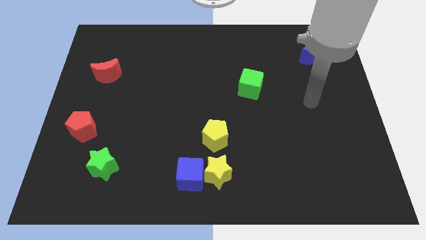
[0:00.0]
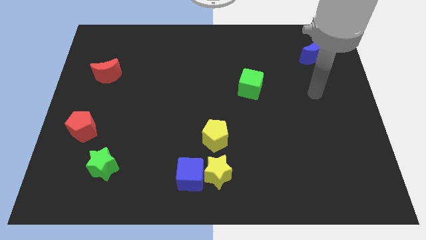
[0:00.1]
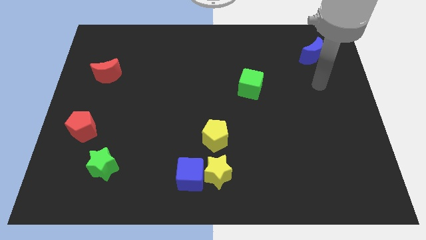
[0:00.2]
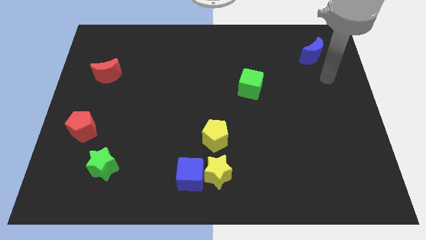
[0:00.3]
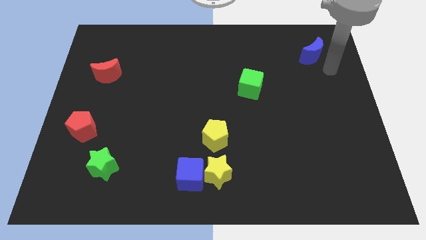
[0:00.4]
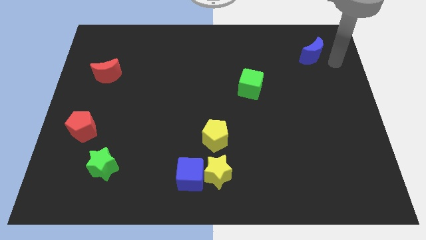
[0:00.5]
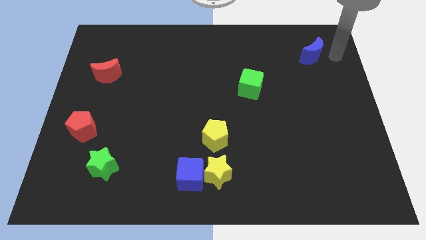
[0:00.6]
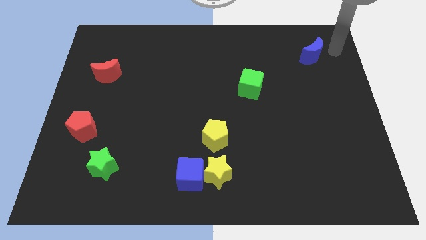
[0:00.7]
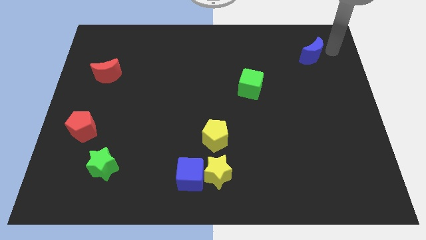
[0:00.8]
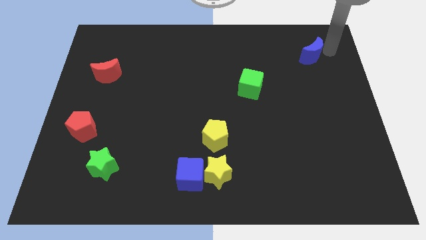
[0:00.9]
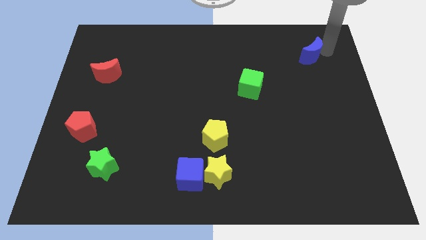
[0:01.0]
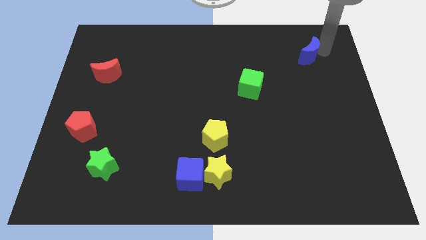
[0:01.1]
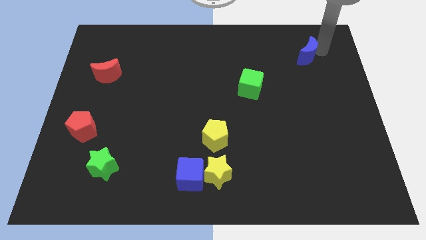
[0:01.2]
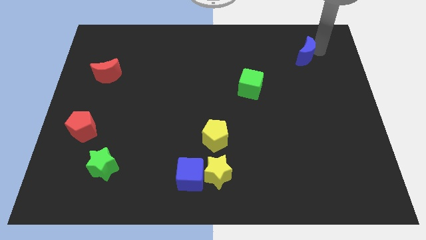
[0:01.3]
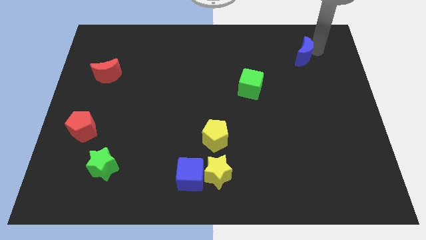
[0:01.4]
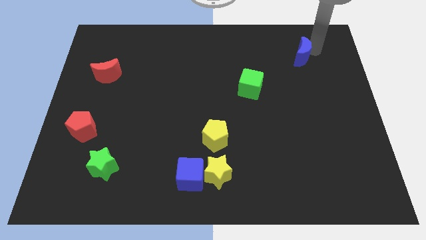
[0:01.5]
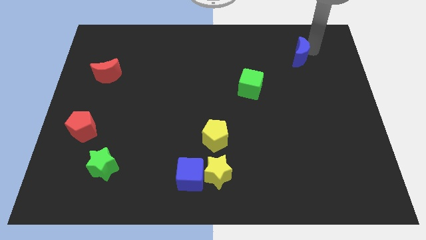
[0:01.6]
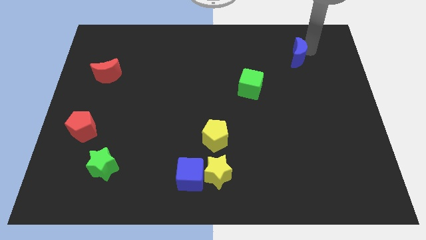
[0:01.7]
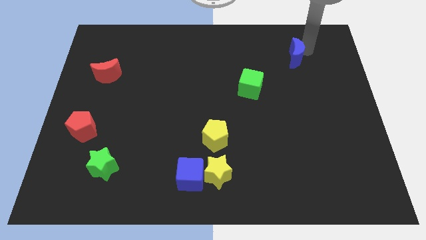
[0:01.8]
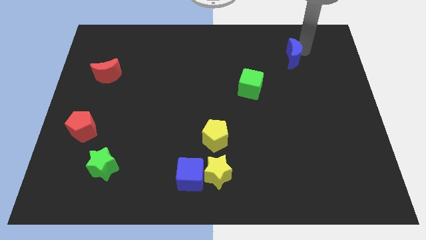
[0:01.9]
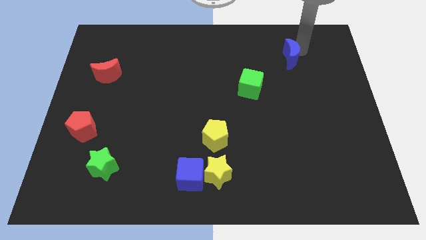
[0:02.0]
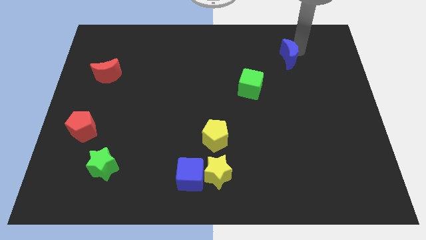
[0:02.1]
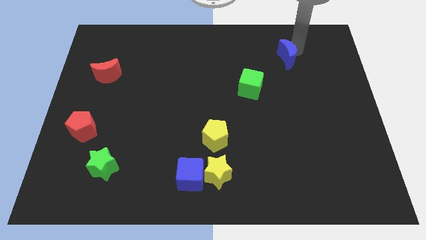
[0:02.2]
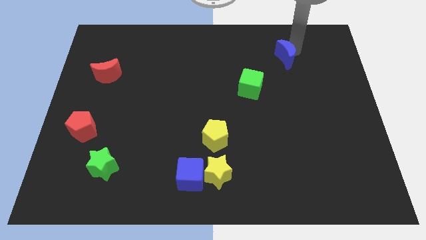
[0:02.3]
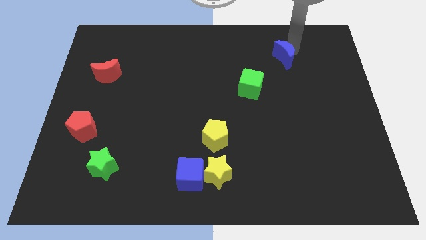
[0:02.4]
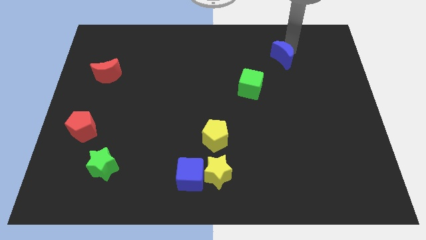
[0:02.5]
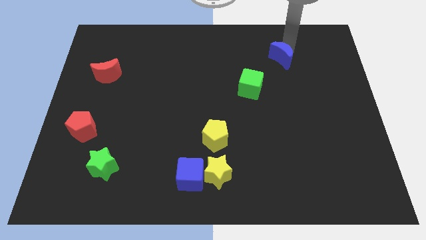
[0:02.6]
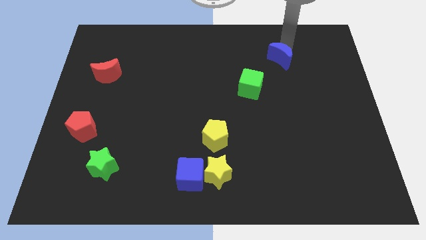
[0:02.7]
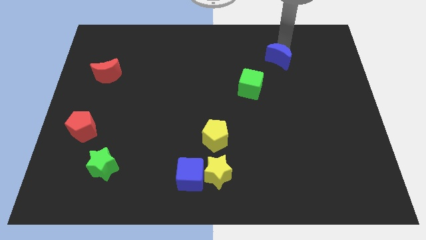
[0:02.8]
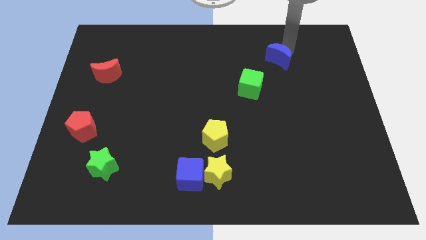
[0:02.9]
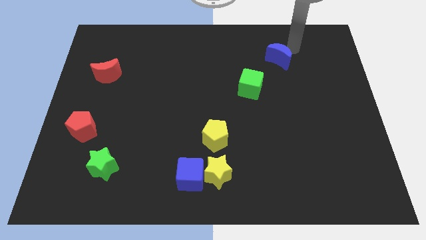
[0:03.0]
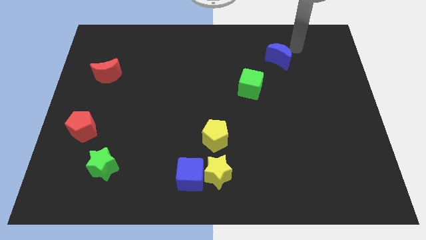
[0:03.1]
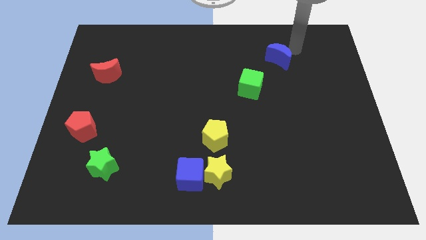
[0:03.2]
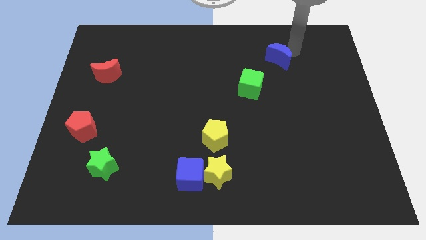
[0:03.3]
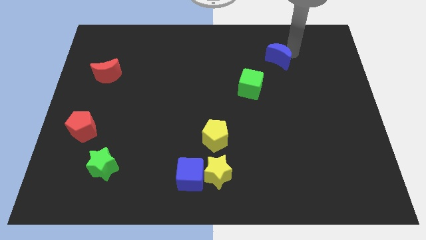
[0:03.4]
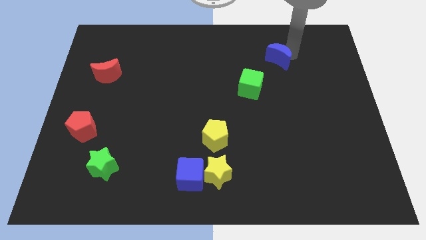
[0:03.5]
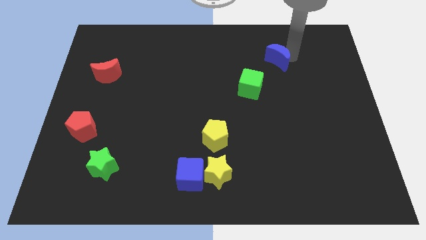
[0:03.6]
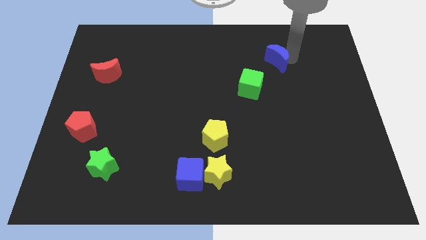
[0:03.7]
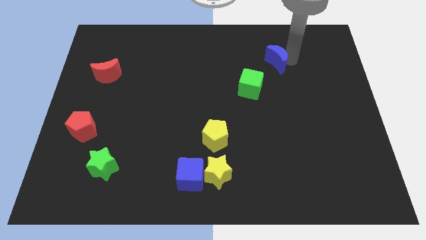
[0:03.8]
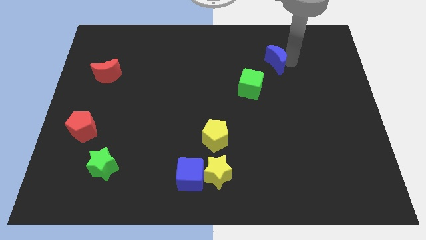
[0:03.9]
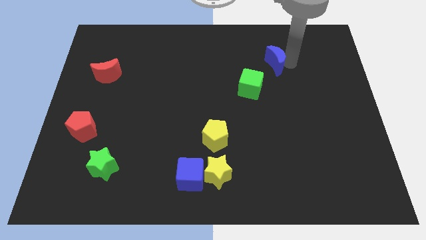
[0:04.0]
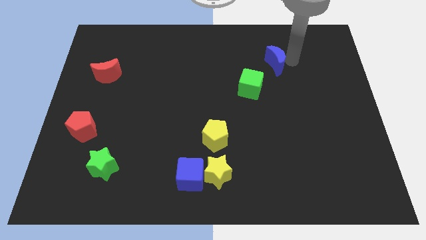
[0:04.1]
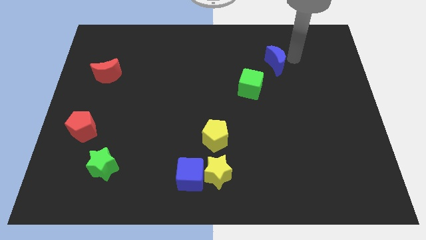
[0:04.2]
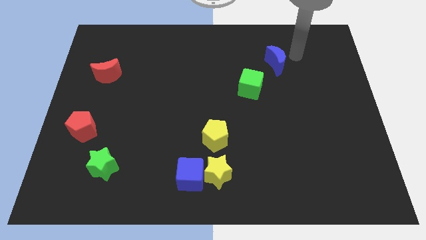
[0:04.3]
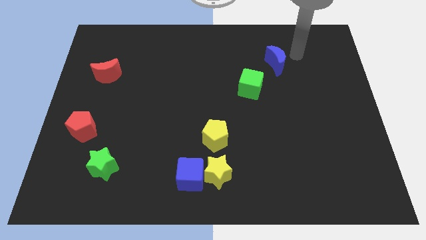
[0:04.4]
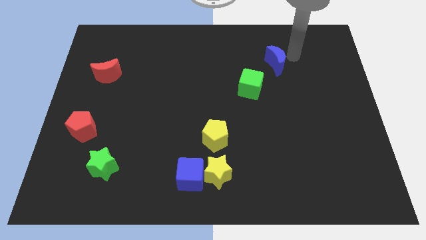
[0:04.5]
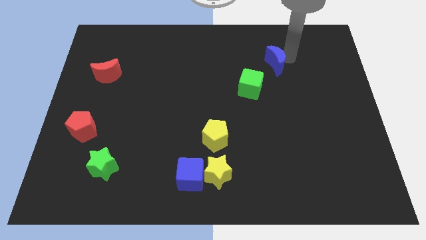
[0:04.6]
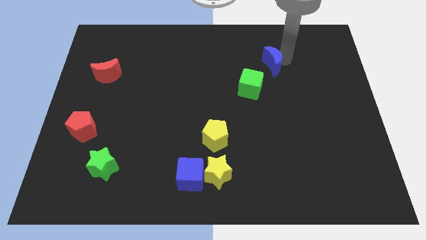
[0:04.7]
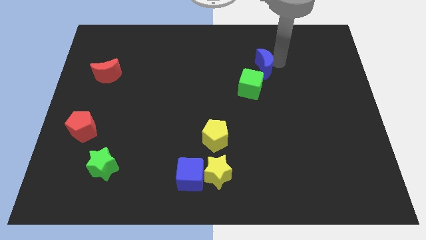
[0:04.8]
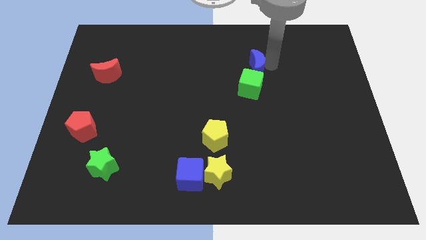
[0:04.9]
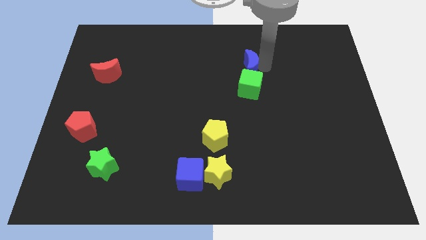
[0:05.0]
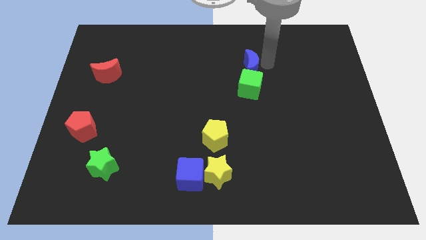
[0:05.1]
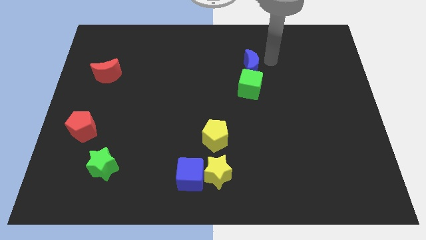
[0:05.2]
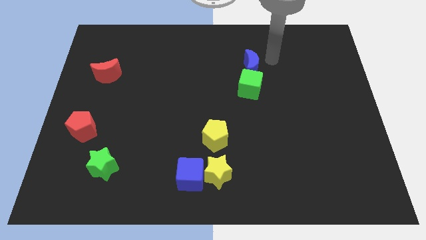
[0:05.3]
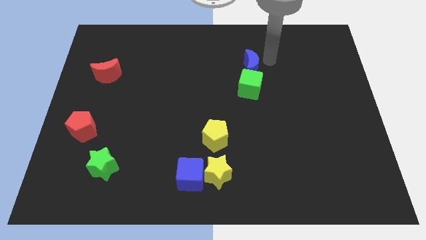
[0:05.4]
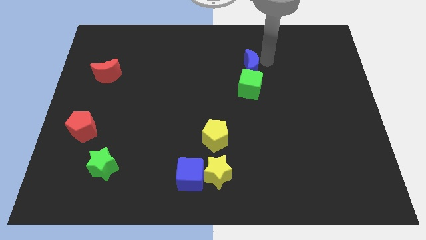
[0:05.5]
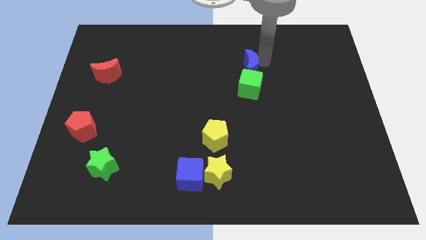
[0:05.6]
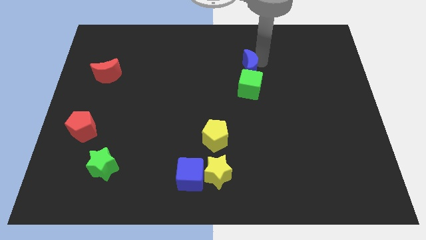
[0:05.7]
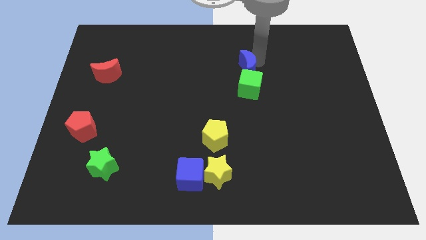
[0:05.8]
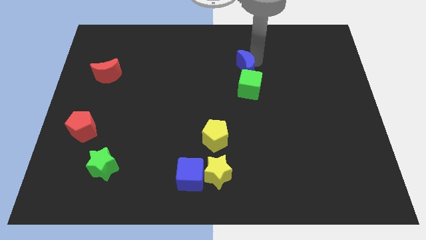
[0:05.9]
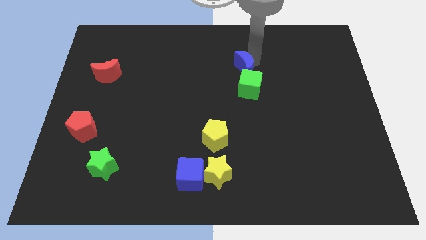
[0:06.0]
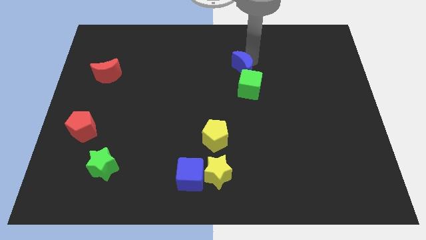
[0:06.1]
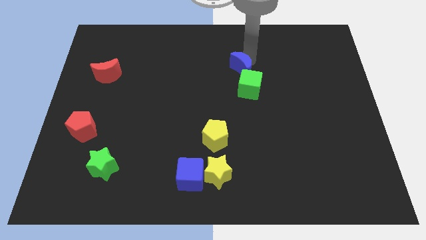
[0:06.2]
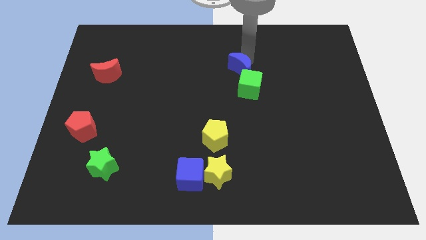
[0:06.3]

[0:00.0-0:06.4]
slide the blue moon to the middle of the board
